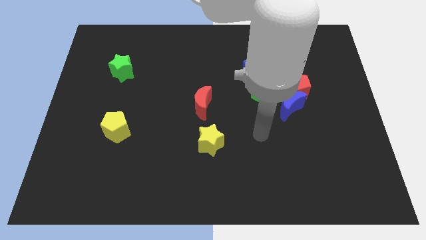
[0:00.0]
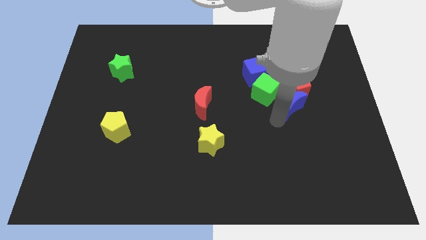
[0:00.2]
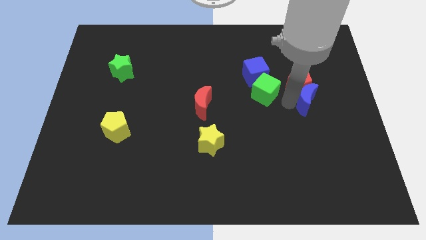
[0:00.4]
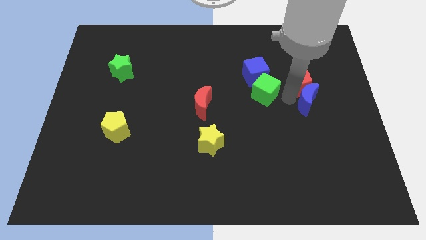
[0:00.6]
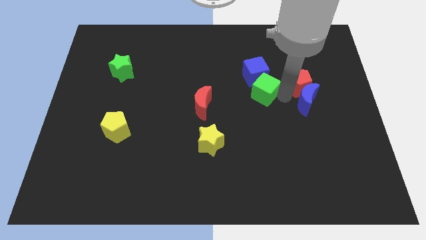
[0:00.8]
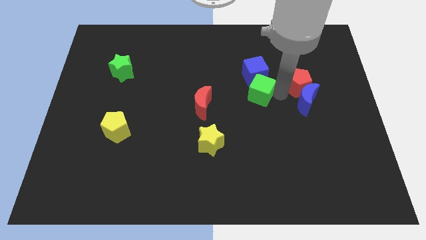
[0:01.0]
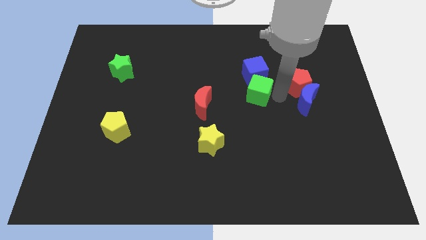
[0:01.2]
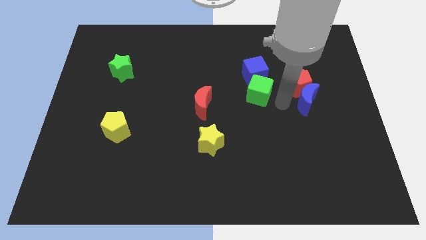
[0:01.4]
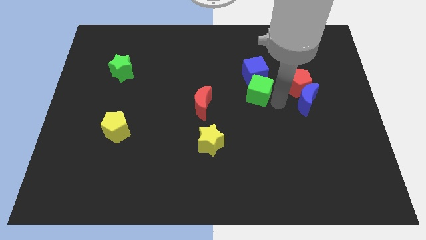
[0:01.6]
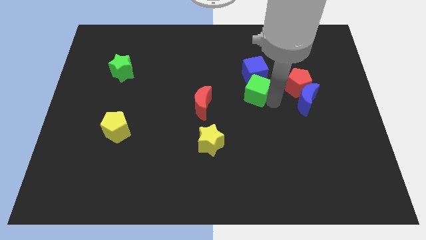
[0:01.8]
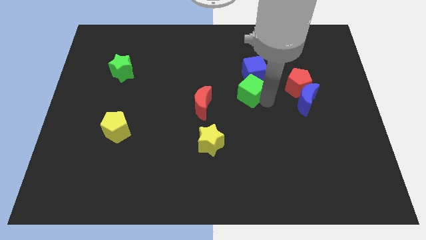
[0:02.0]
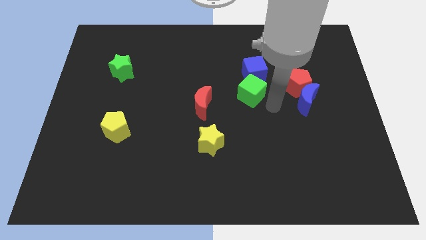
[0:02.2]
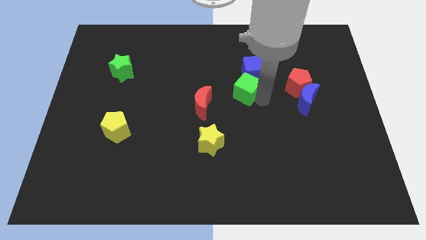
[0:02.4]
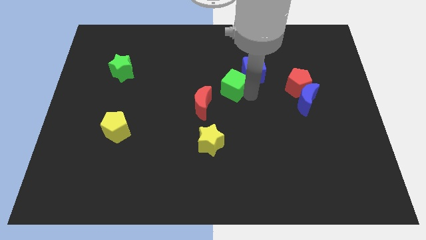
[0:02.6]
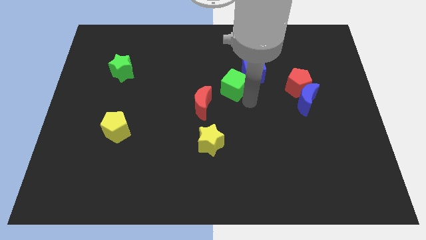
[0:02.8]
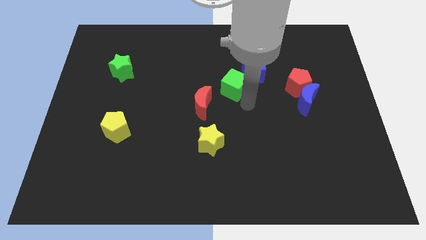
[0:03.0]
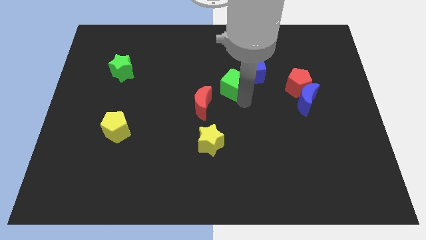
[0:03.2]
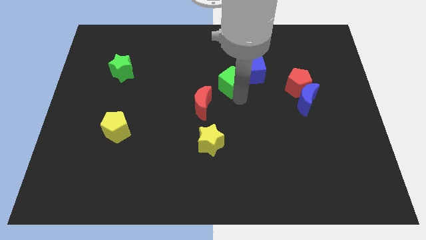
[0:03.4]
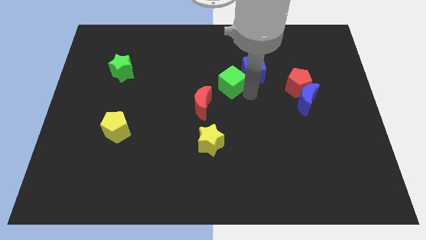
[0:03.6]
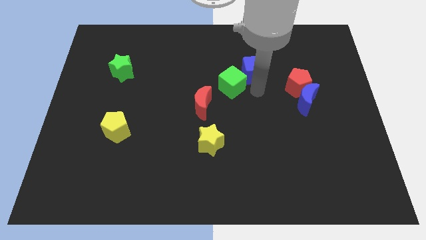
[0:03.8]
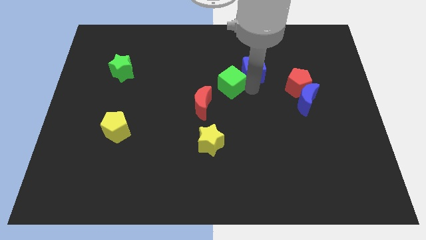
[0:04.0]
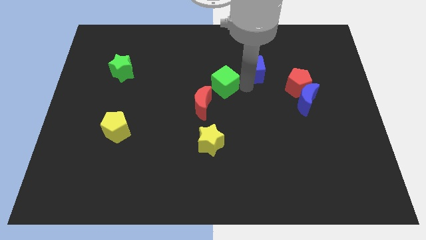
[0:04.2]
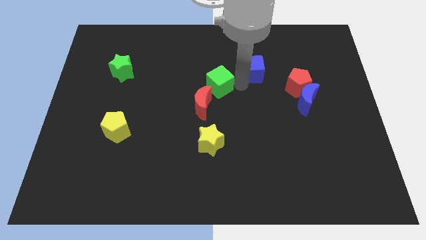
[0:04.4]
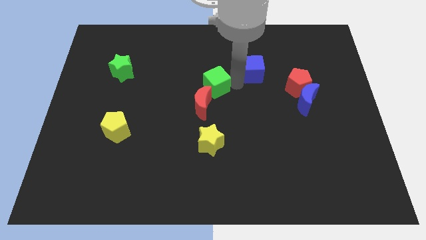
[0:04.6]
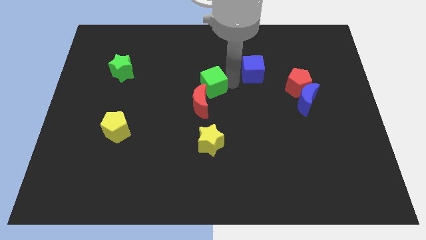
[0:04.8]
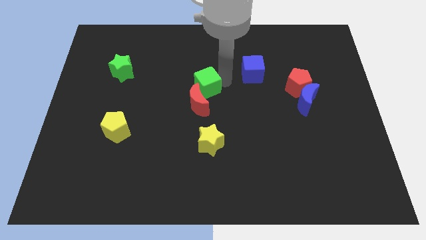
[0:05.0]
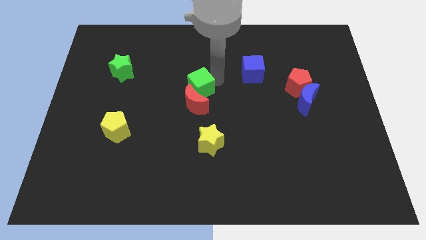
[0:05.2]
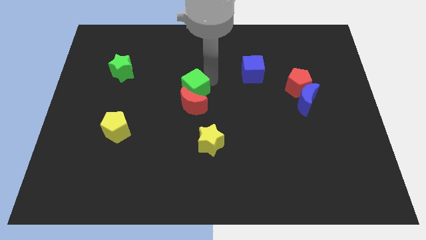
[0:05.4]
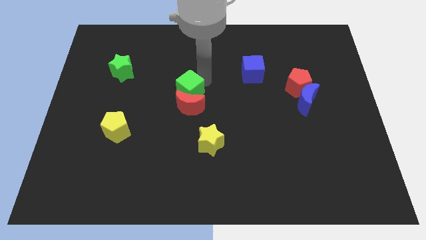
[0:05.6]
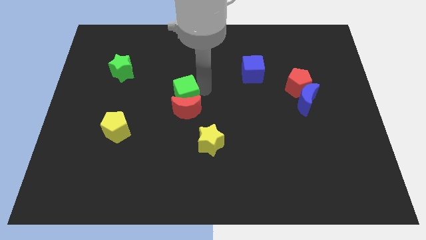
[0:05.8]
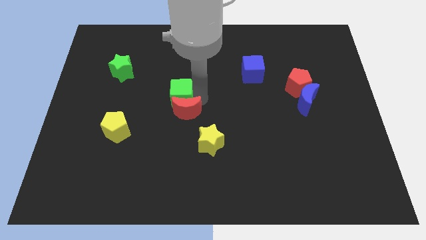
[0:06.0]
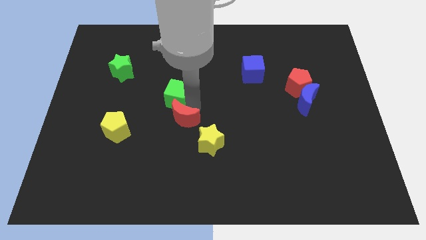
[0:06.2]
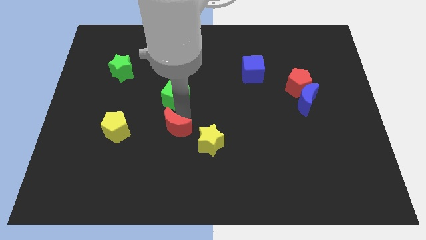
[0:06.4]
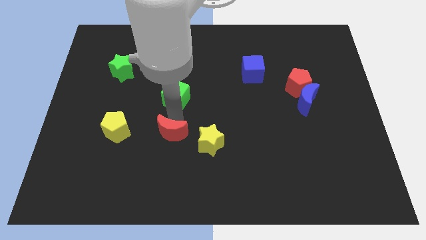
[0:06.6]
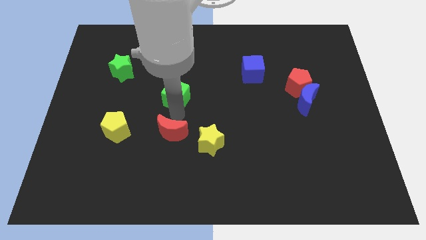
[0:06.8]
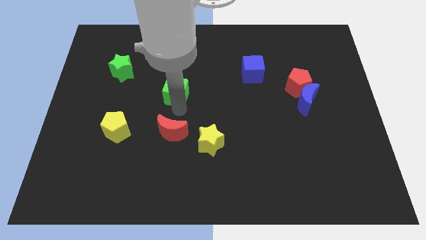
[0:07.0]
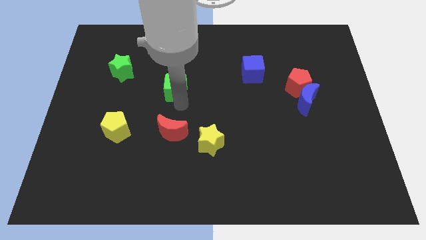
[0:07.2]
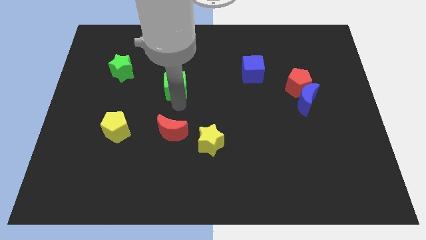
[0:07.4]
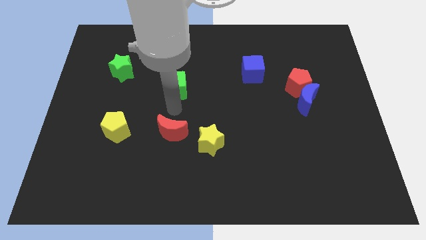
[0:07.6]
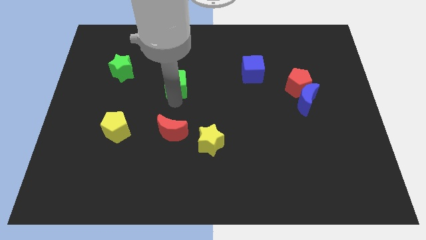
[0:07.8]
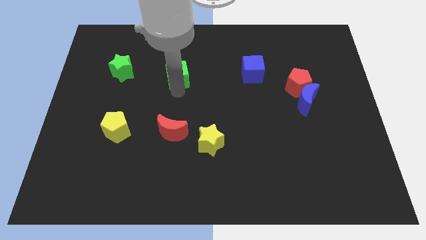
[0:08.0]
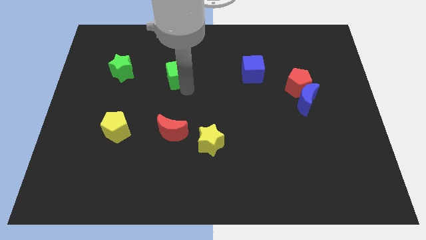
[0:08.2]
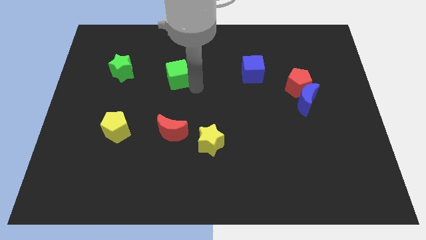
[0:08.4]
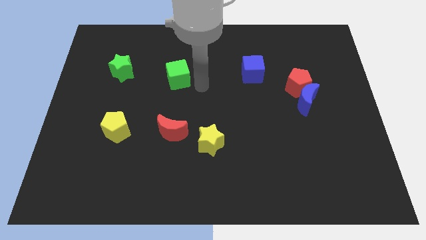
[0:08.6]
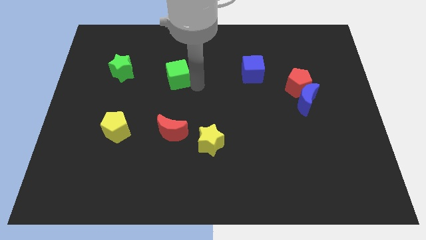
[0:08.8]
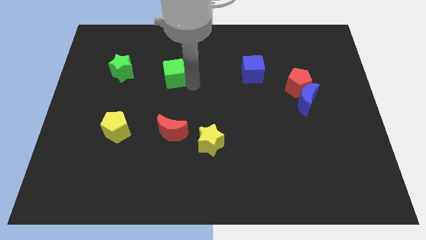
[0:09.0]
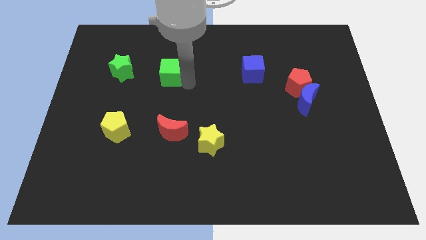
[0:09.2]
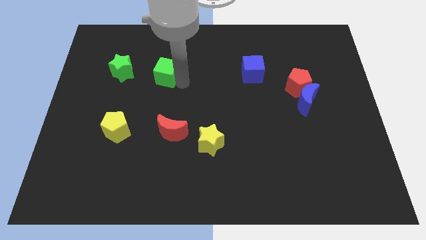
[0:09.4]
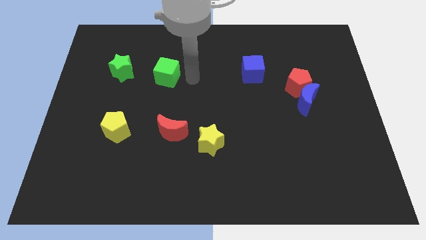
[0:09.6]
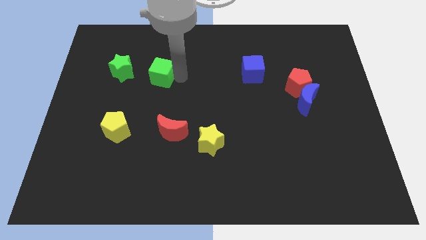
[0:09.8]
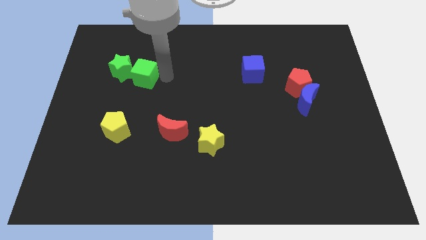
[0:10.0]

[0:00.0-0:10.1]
move the green cube next to the green star

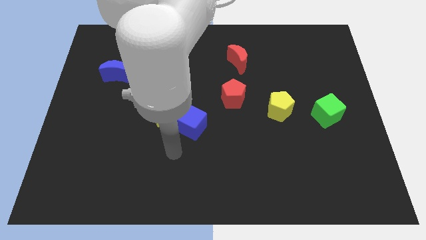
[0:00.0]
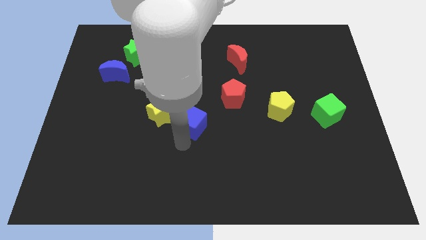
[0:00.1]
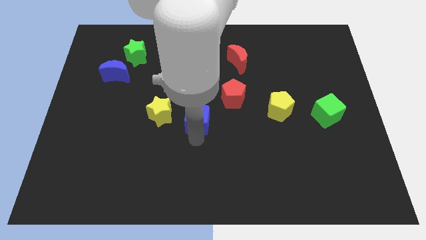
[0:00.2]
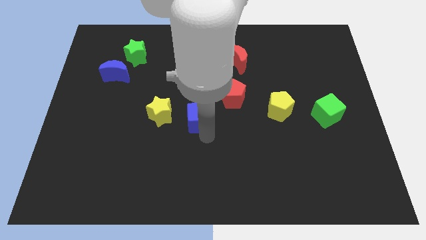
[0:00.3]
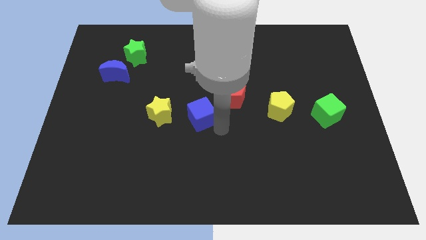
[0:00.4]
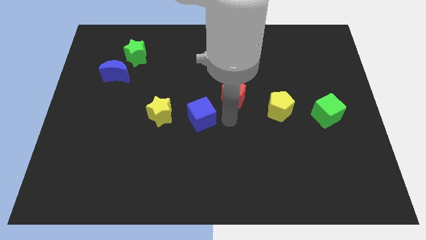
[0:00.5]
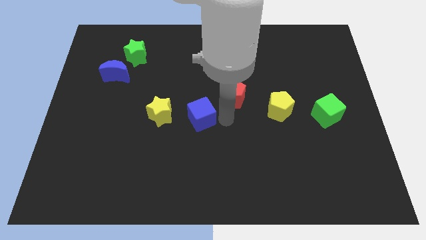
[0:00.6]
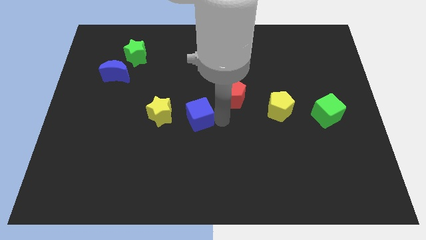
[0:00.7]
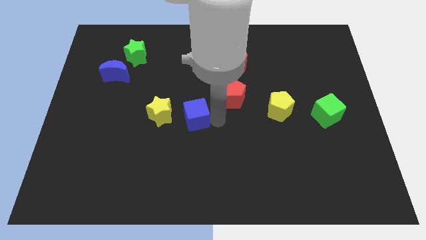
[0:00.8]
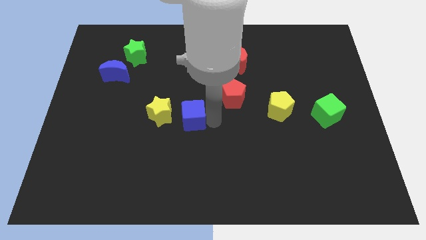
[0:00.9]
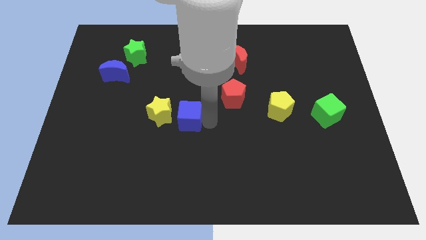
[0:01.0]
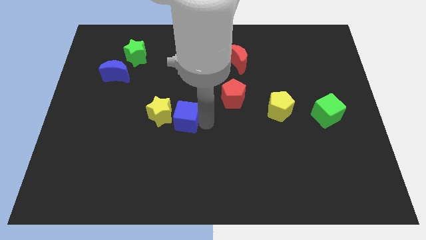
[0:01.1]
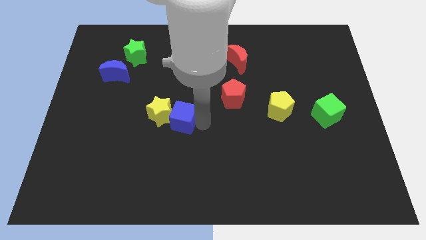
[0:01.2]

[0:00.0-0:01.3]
put the blue cube to the yellow star

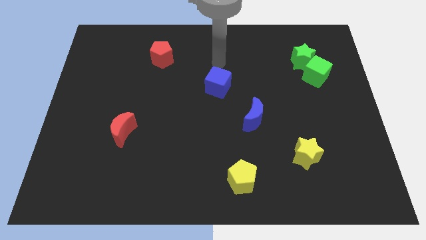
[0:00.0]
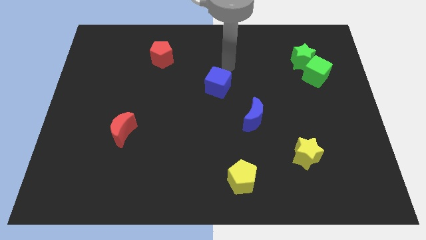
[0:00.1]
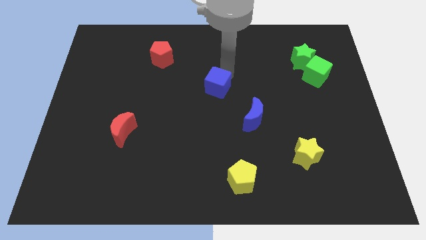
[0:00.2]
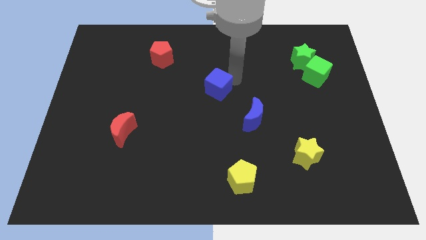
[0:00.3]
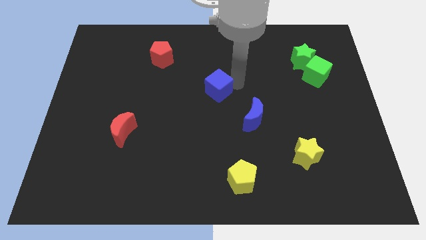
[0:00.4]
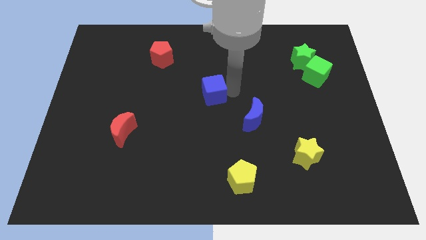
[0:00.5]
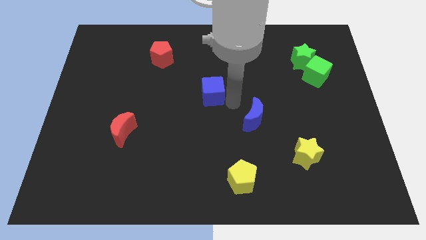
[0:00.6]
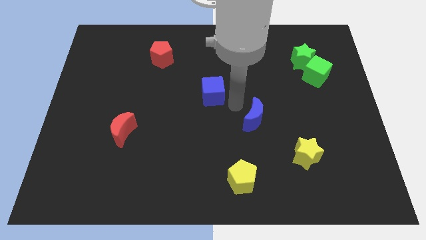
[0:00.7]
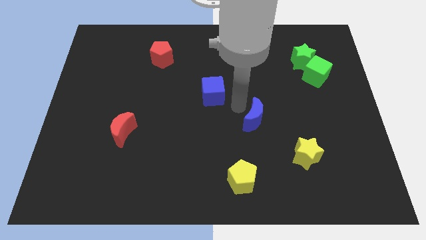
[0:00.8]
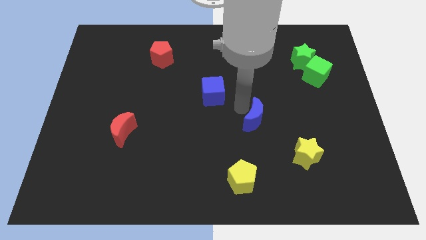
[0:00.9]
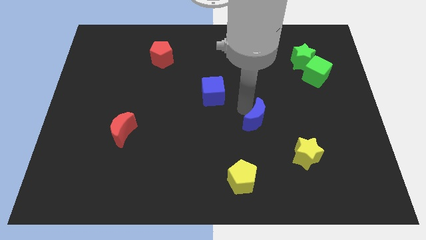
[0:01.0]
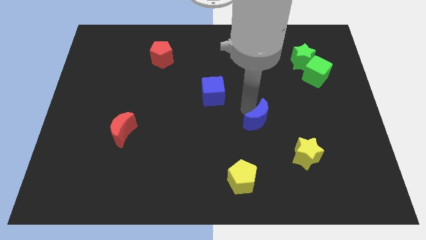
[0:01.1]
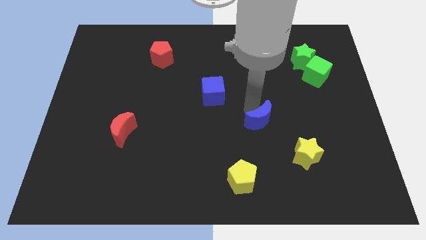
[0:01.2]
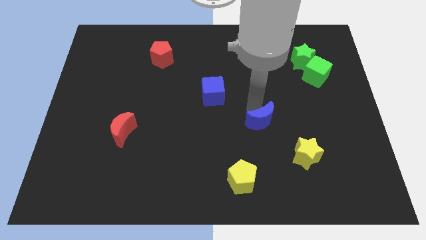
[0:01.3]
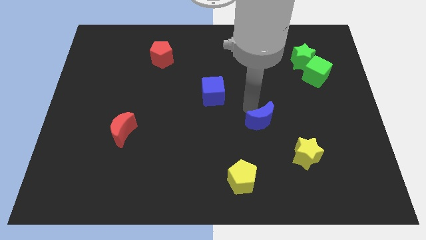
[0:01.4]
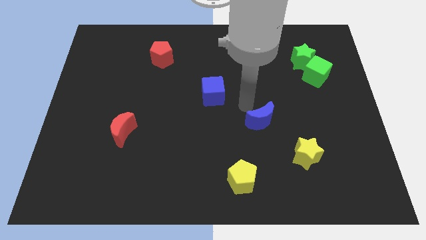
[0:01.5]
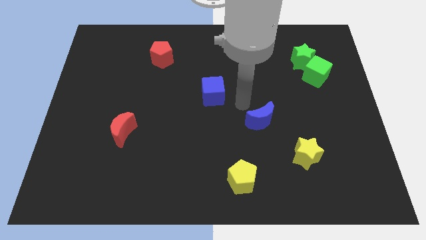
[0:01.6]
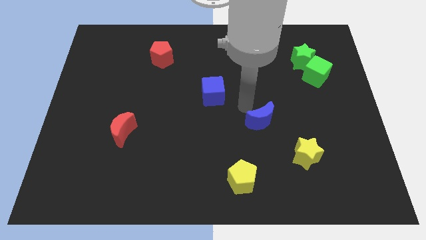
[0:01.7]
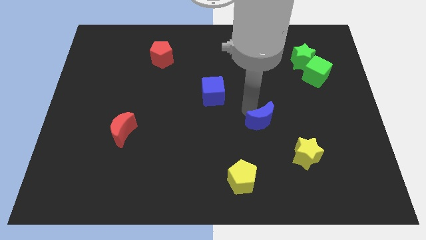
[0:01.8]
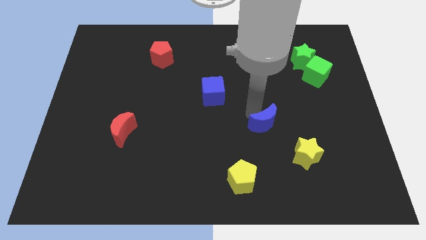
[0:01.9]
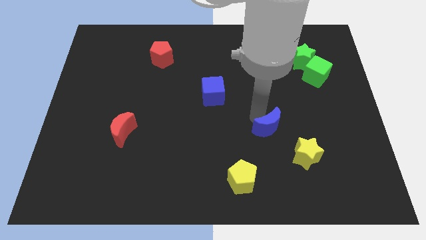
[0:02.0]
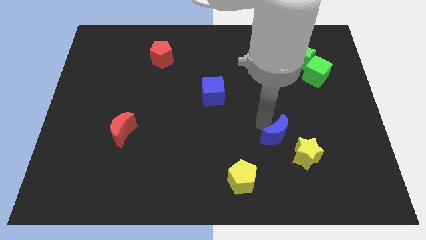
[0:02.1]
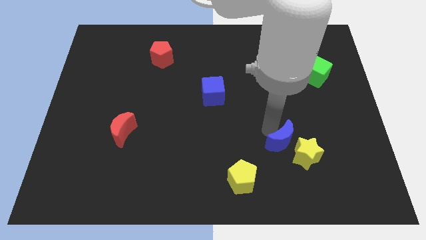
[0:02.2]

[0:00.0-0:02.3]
slide the blue moon next to the yellow star
